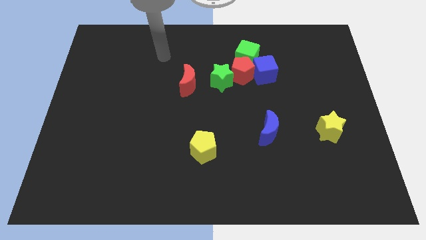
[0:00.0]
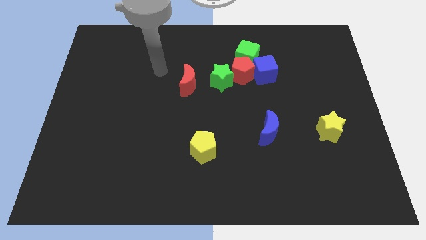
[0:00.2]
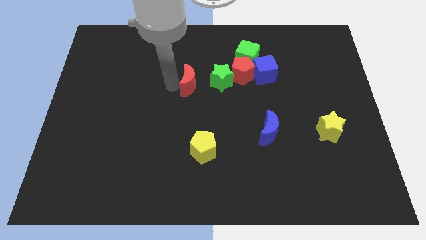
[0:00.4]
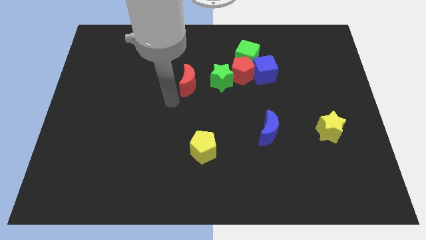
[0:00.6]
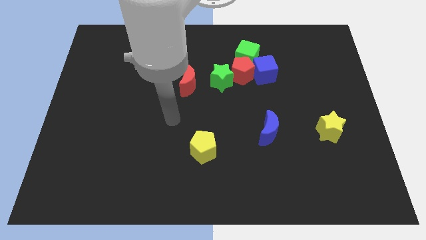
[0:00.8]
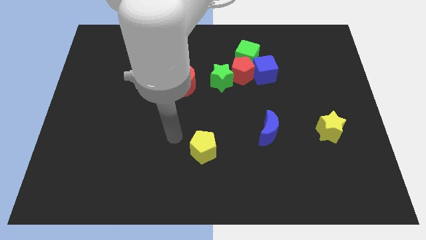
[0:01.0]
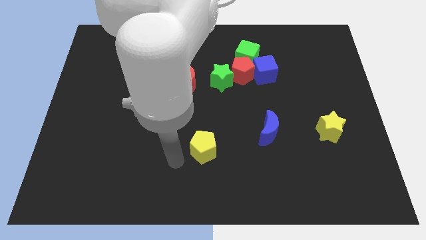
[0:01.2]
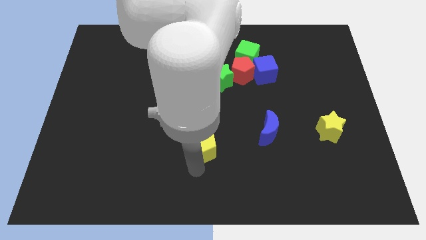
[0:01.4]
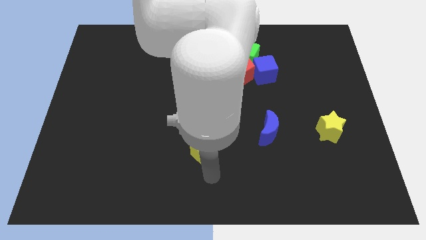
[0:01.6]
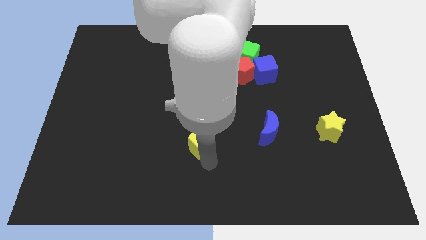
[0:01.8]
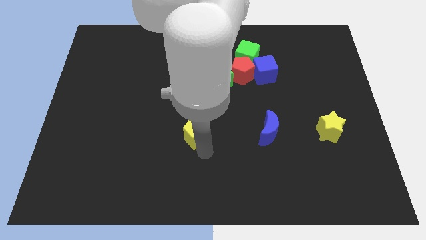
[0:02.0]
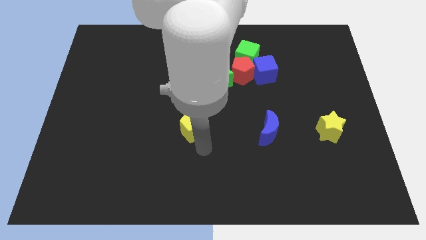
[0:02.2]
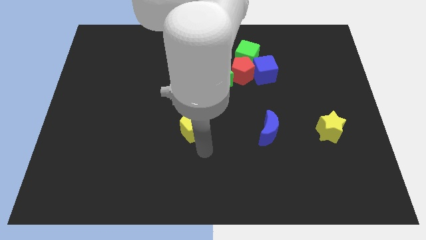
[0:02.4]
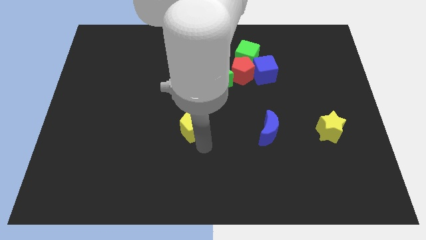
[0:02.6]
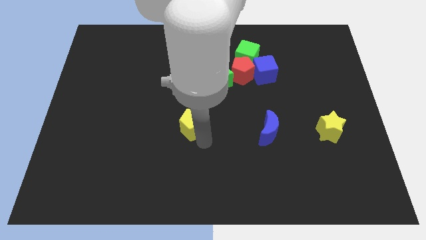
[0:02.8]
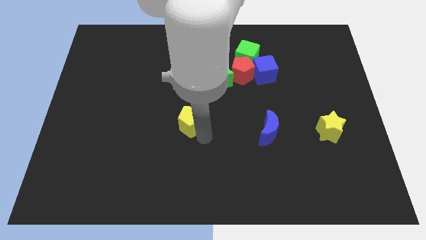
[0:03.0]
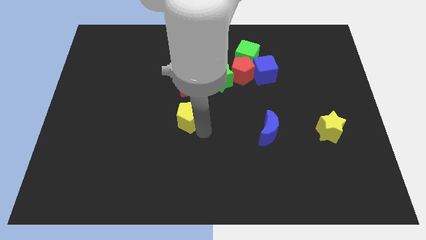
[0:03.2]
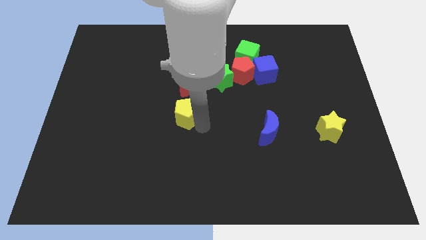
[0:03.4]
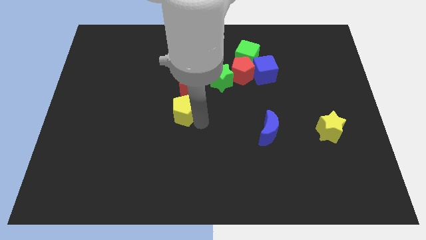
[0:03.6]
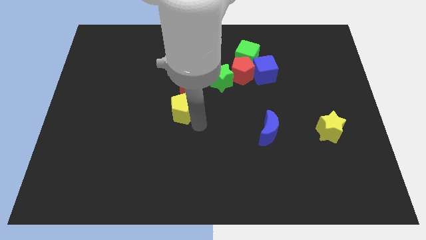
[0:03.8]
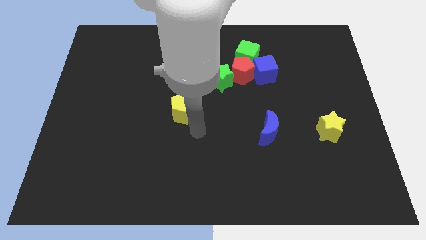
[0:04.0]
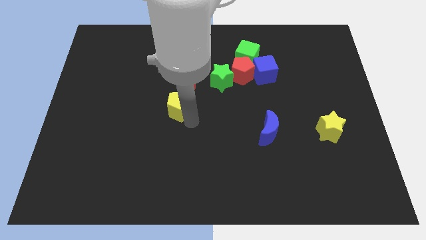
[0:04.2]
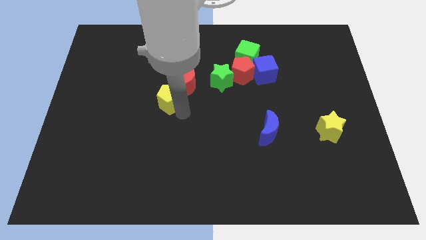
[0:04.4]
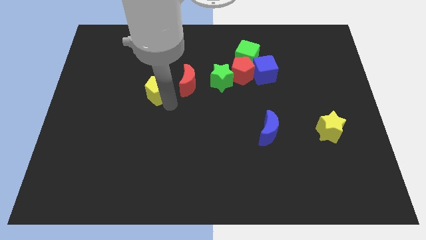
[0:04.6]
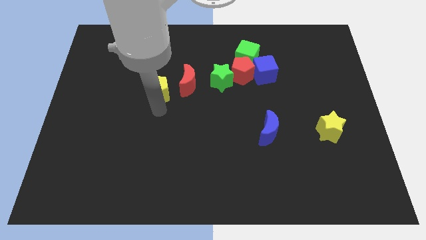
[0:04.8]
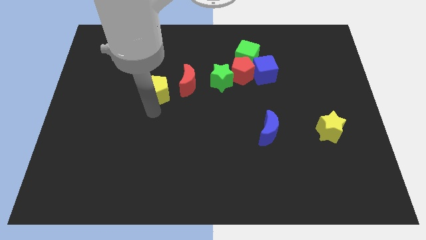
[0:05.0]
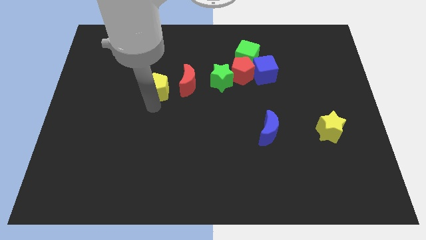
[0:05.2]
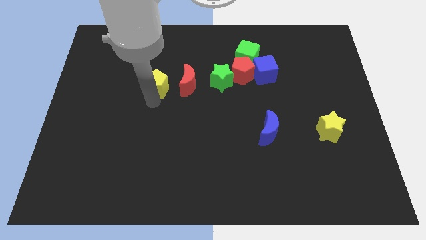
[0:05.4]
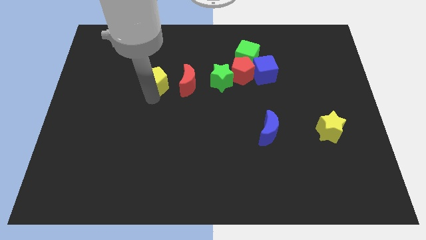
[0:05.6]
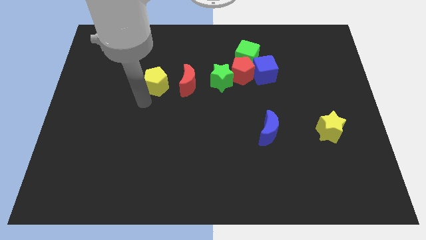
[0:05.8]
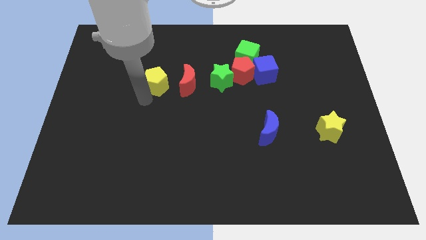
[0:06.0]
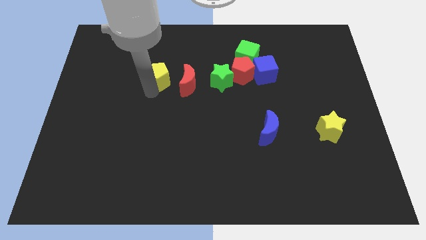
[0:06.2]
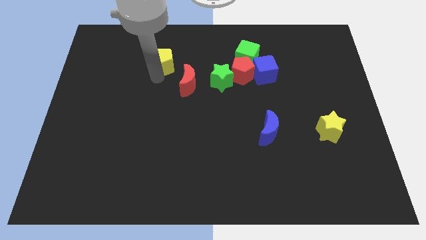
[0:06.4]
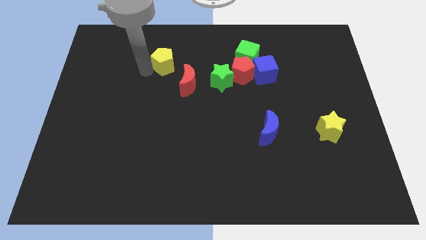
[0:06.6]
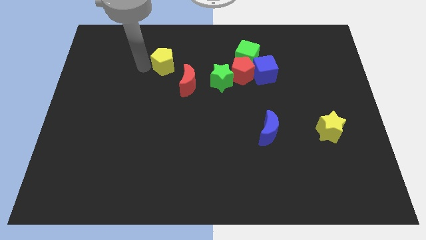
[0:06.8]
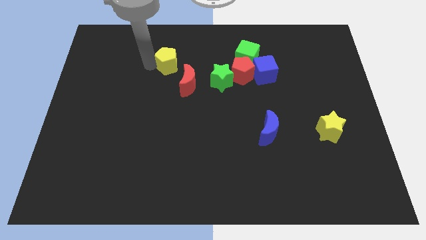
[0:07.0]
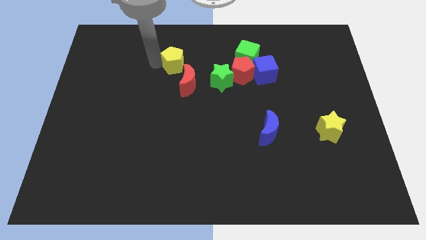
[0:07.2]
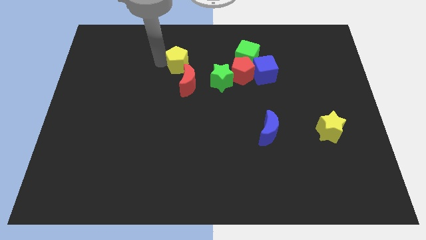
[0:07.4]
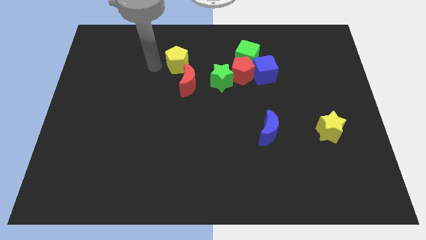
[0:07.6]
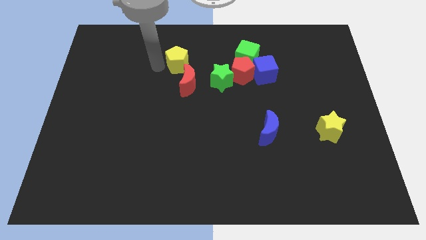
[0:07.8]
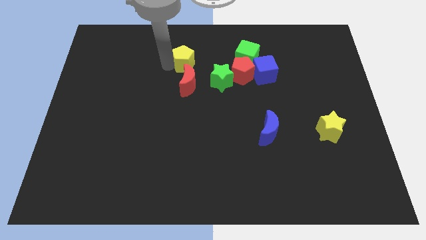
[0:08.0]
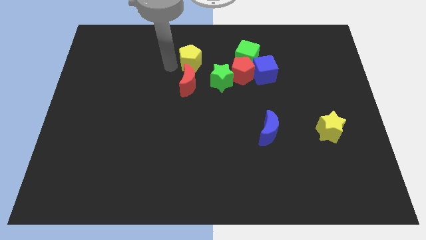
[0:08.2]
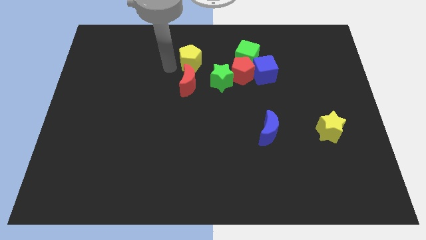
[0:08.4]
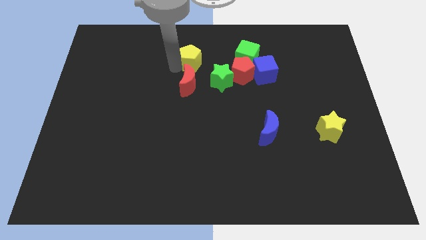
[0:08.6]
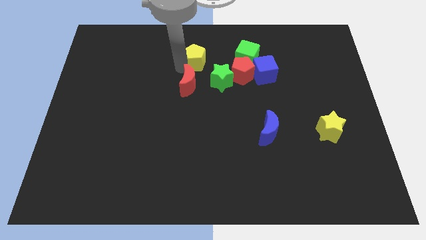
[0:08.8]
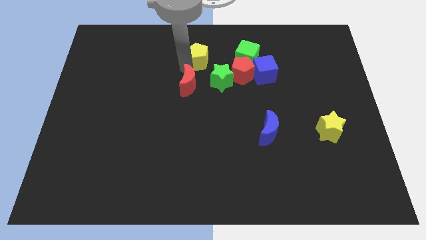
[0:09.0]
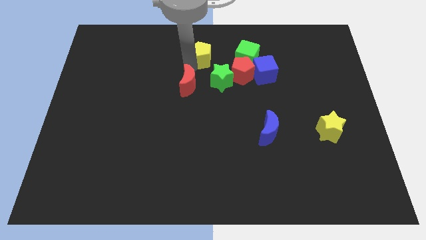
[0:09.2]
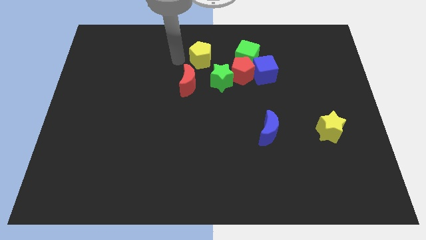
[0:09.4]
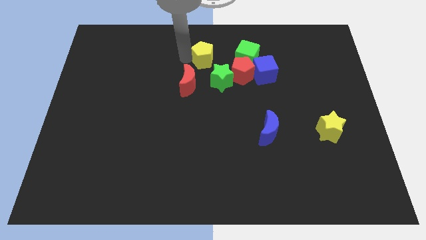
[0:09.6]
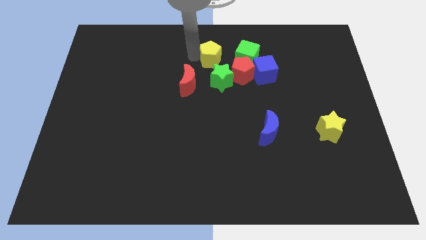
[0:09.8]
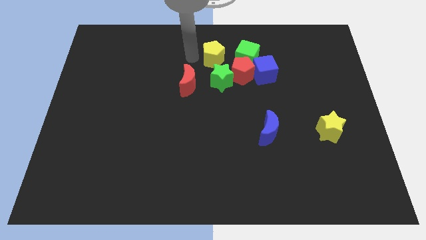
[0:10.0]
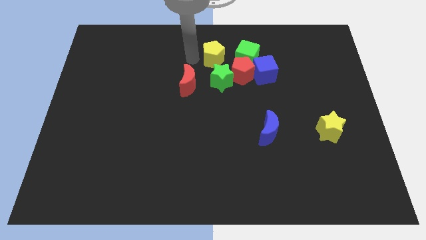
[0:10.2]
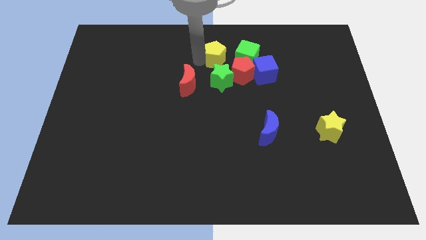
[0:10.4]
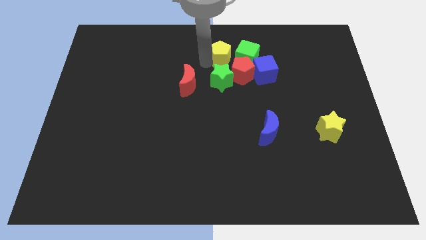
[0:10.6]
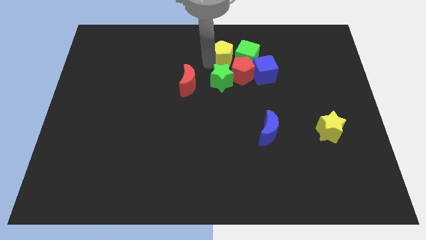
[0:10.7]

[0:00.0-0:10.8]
put the yellow pentagon next to the green cube

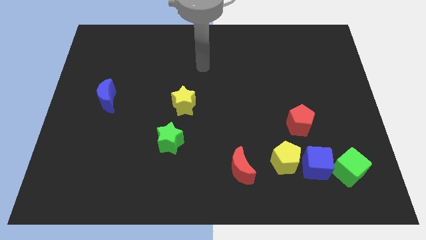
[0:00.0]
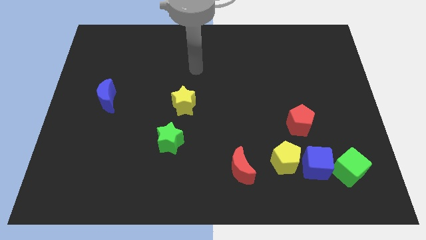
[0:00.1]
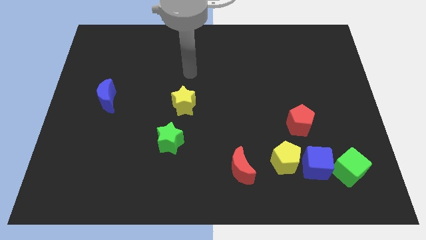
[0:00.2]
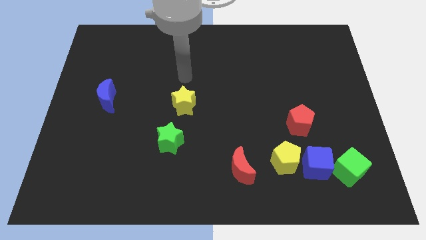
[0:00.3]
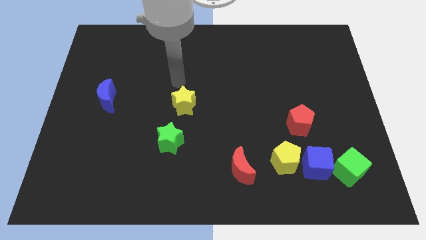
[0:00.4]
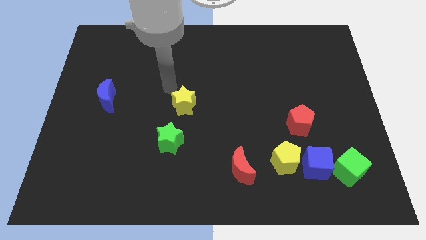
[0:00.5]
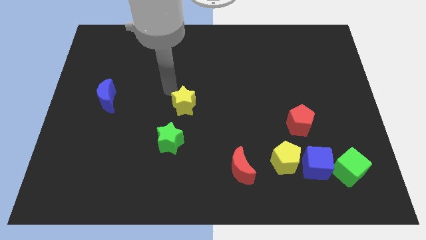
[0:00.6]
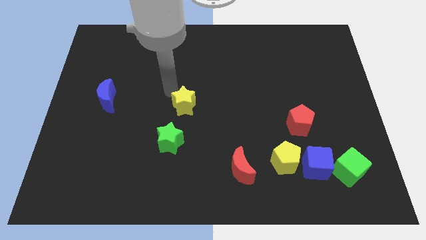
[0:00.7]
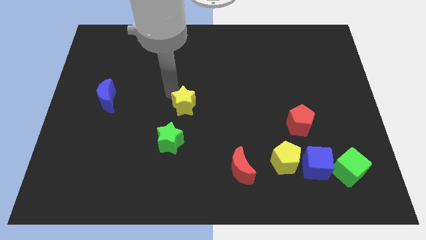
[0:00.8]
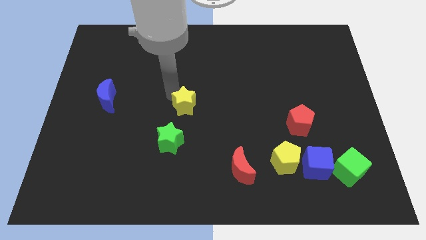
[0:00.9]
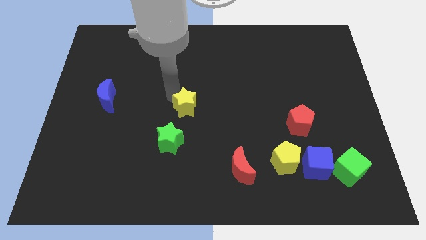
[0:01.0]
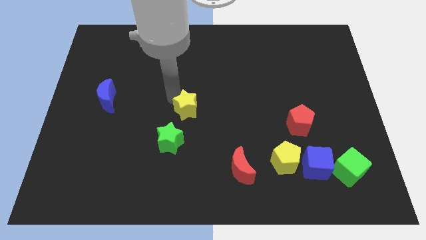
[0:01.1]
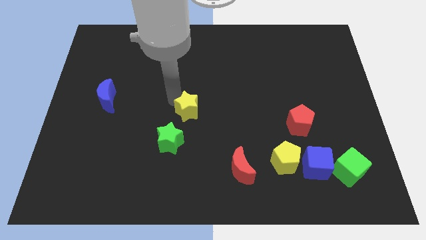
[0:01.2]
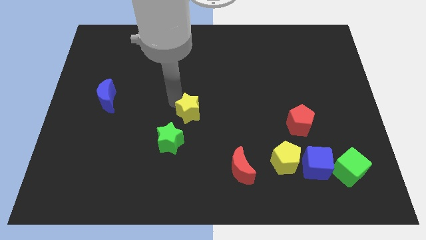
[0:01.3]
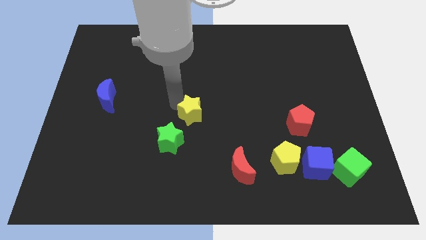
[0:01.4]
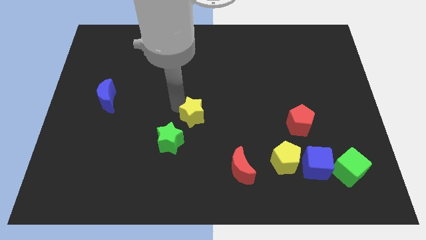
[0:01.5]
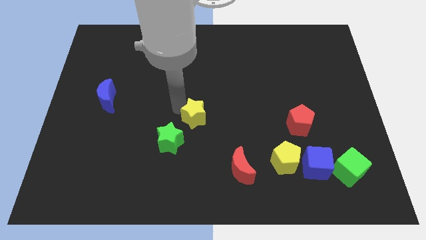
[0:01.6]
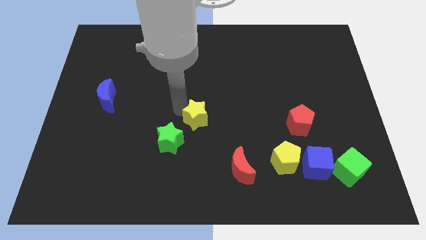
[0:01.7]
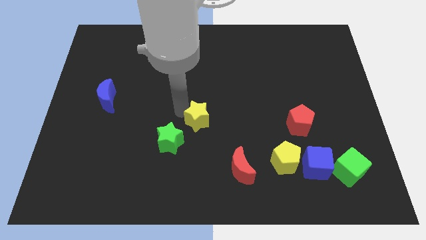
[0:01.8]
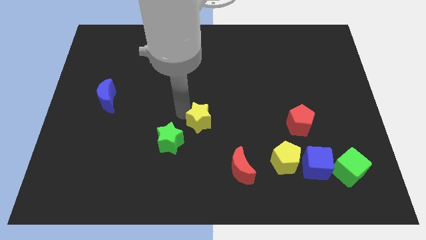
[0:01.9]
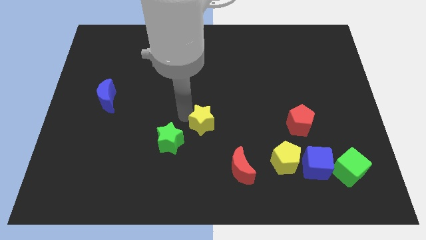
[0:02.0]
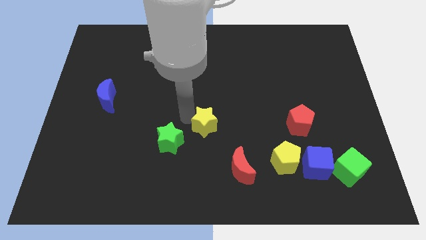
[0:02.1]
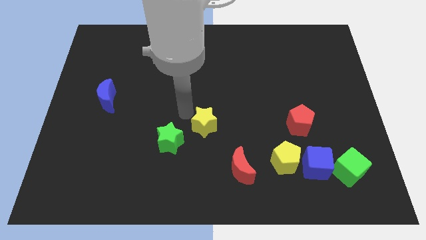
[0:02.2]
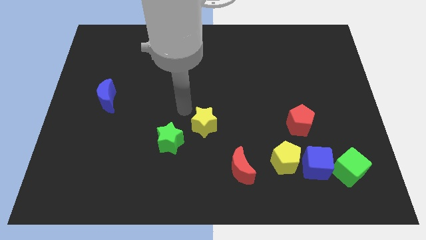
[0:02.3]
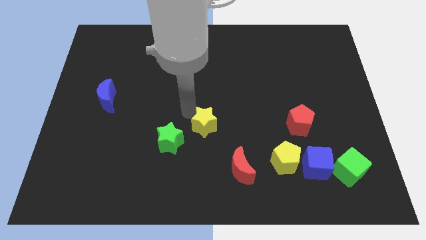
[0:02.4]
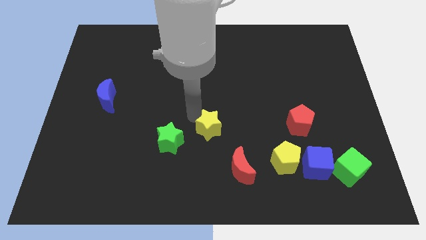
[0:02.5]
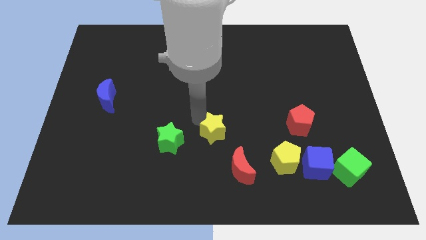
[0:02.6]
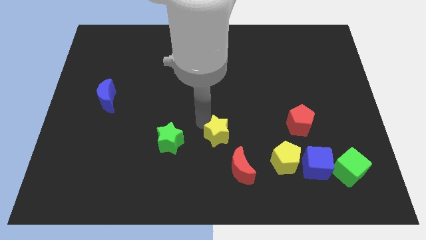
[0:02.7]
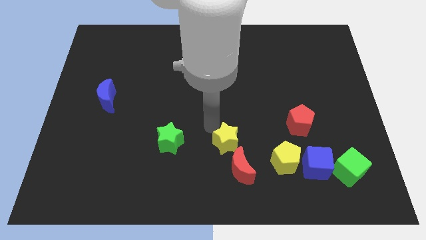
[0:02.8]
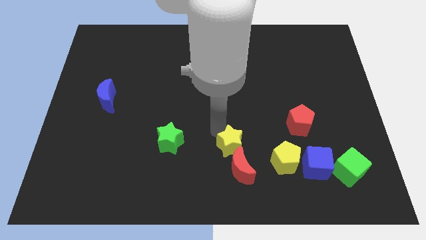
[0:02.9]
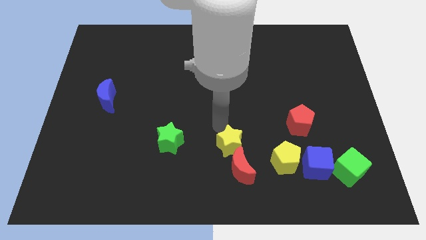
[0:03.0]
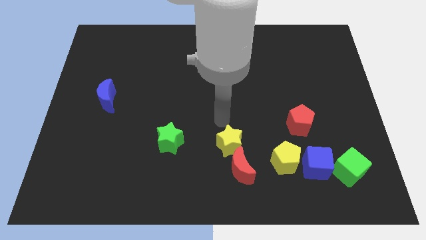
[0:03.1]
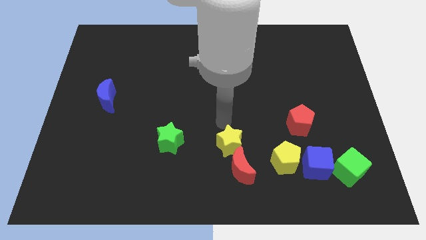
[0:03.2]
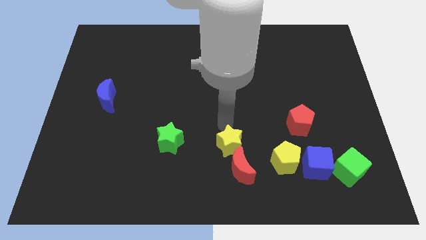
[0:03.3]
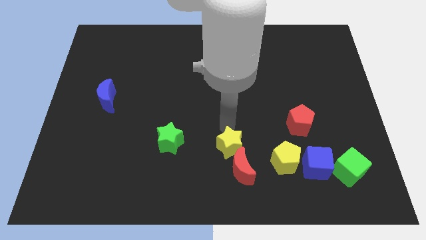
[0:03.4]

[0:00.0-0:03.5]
move the yellow star towards the red moon
